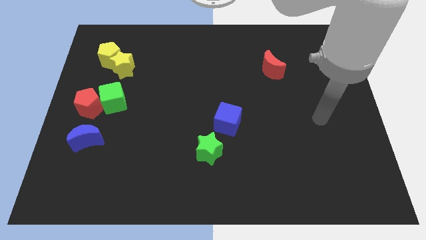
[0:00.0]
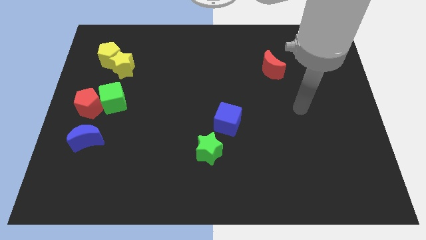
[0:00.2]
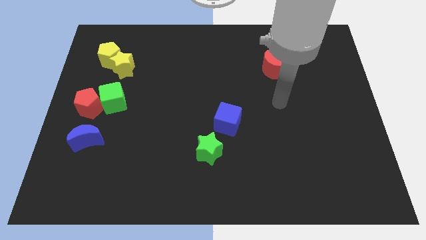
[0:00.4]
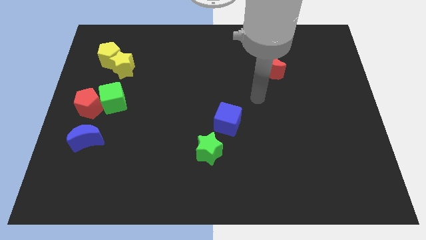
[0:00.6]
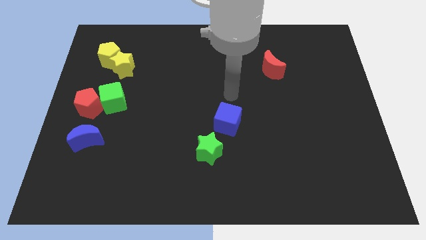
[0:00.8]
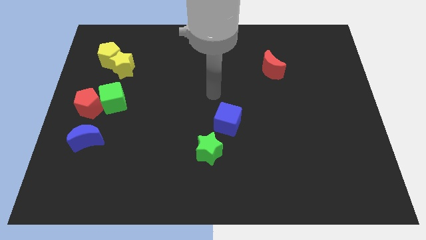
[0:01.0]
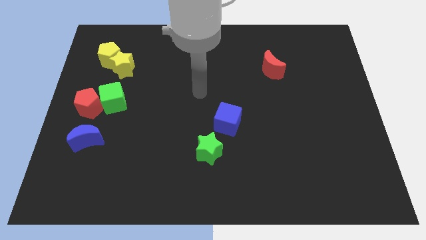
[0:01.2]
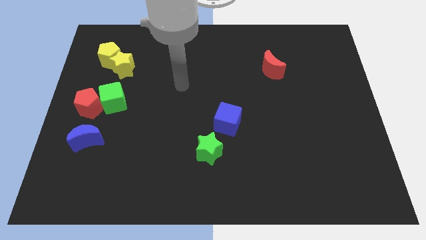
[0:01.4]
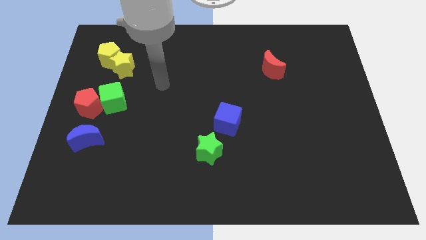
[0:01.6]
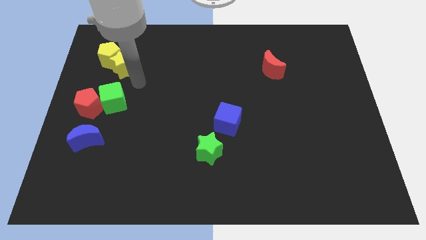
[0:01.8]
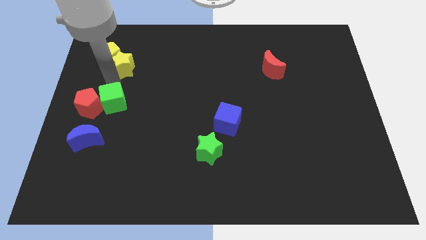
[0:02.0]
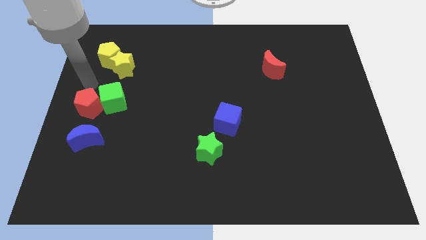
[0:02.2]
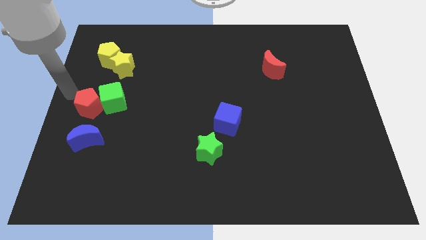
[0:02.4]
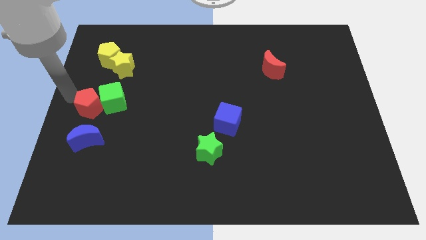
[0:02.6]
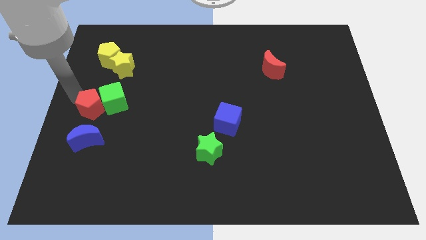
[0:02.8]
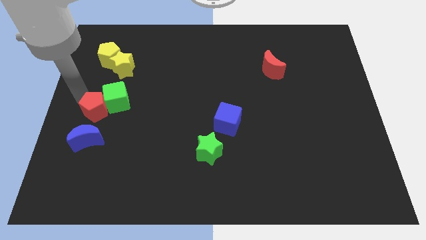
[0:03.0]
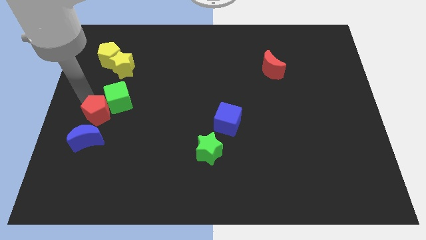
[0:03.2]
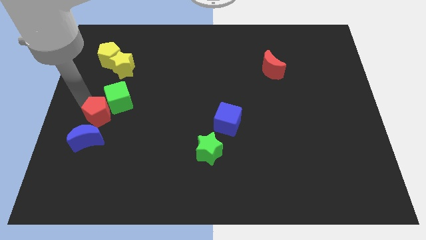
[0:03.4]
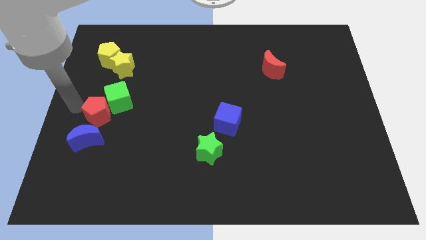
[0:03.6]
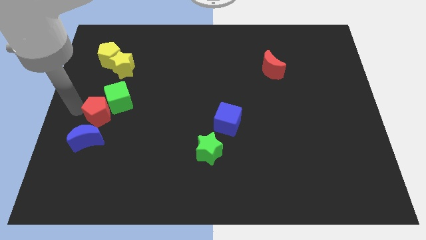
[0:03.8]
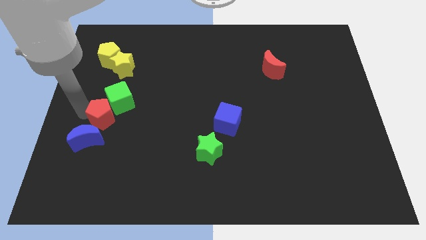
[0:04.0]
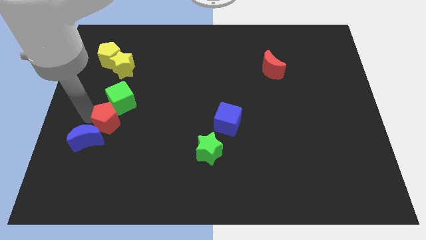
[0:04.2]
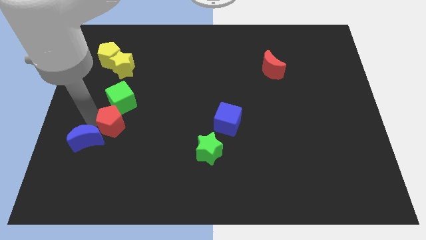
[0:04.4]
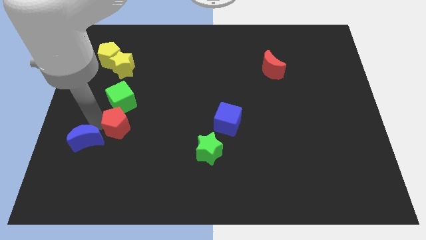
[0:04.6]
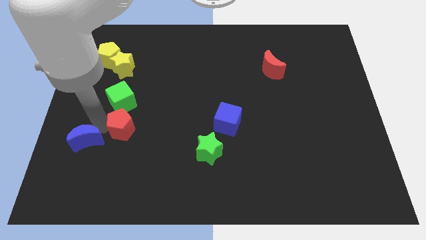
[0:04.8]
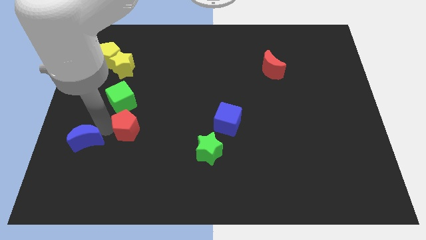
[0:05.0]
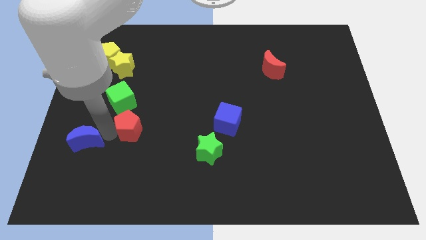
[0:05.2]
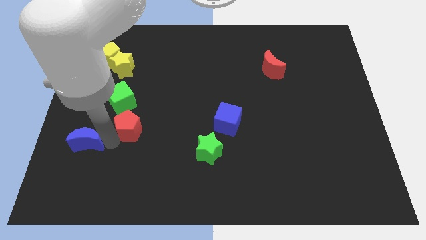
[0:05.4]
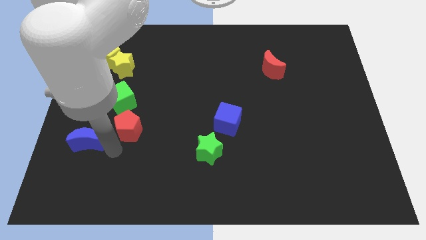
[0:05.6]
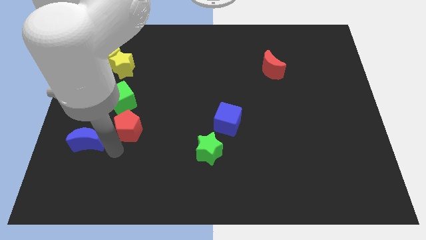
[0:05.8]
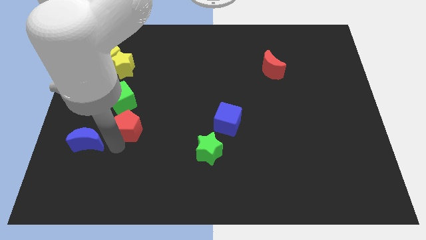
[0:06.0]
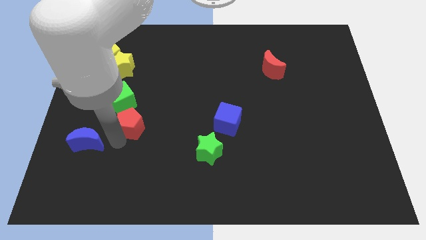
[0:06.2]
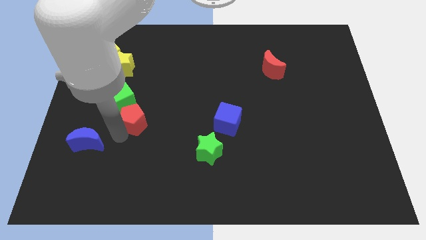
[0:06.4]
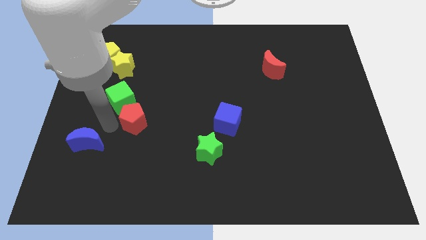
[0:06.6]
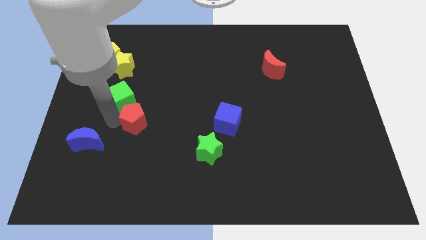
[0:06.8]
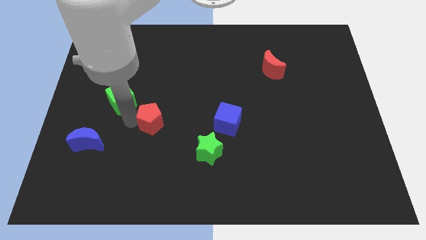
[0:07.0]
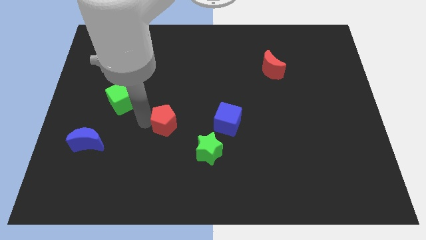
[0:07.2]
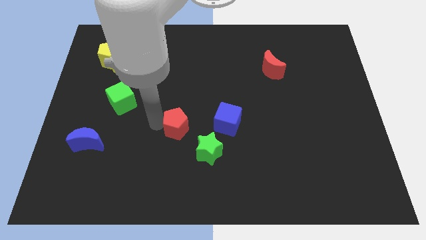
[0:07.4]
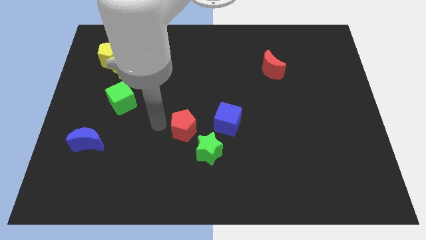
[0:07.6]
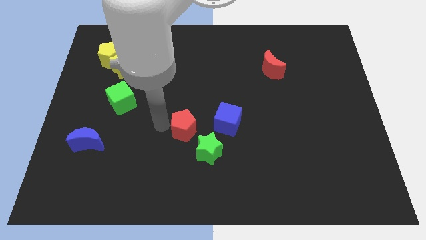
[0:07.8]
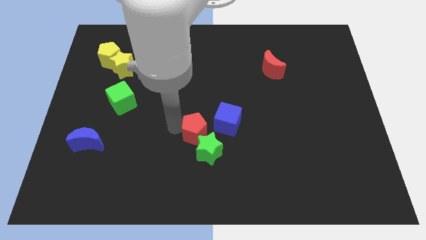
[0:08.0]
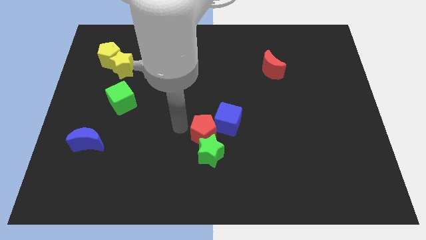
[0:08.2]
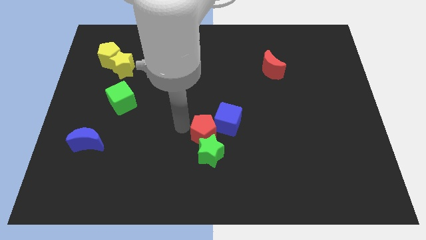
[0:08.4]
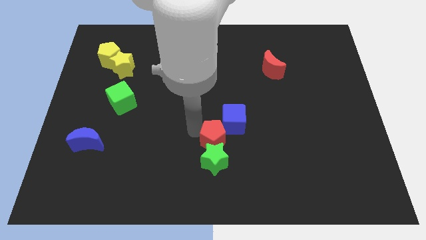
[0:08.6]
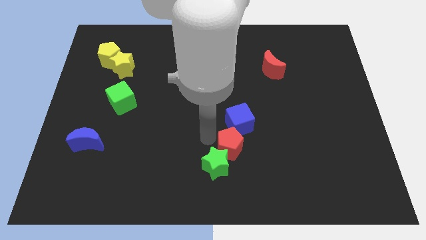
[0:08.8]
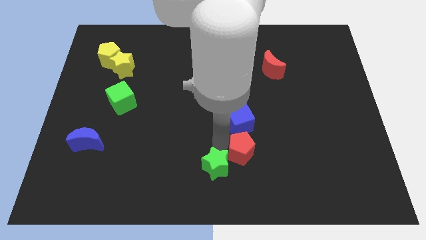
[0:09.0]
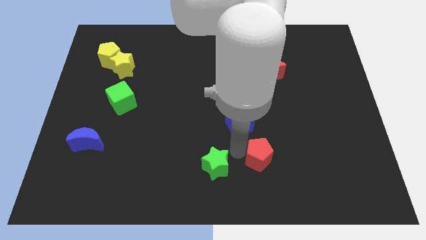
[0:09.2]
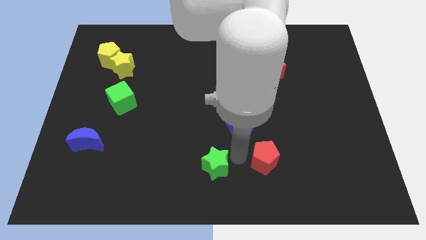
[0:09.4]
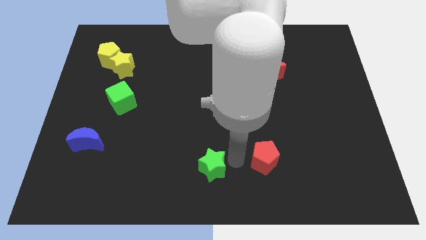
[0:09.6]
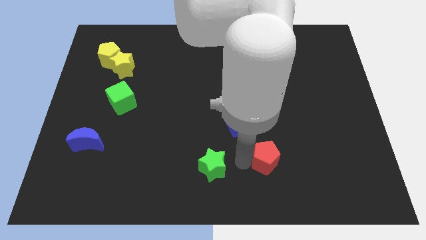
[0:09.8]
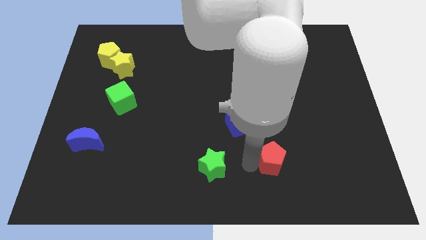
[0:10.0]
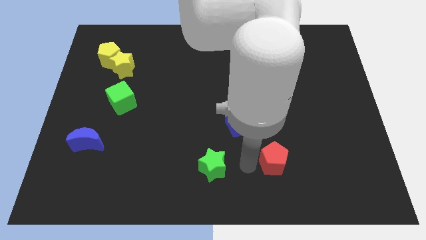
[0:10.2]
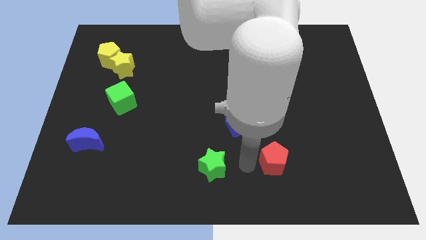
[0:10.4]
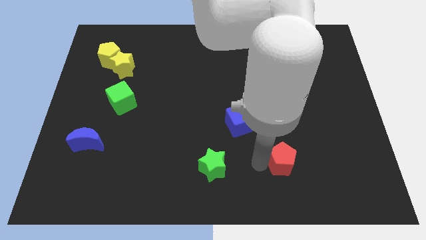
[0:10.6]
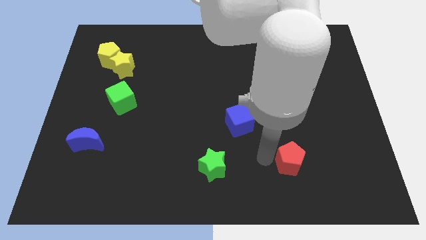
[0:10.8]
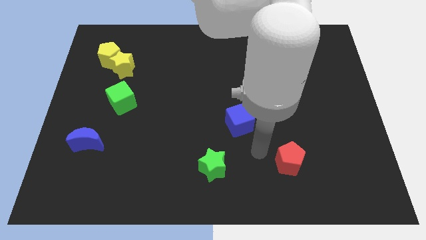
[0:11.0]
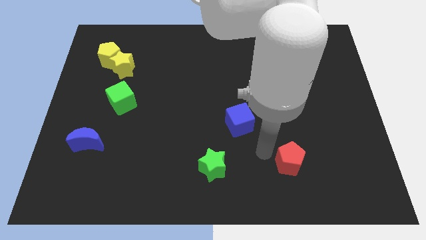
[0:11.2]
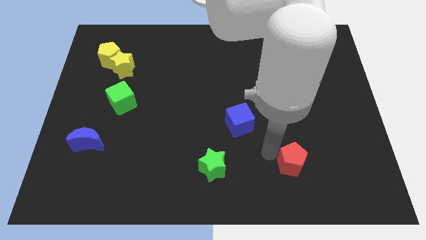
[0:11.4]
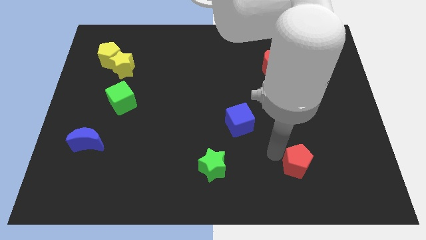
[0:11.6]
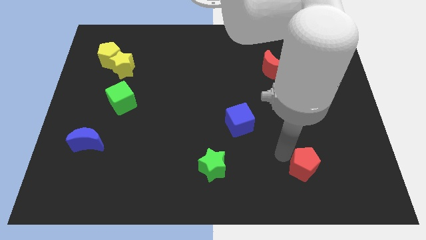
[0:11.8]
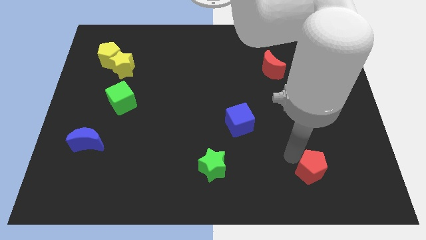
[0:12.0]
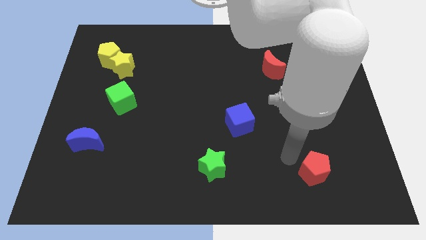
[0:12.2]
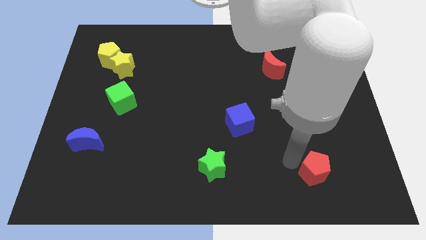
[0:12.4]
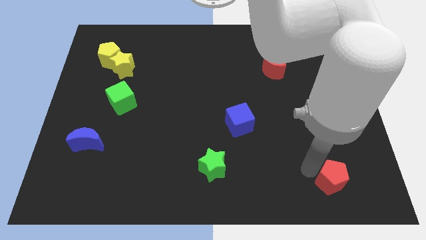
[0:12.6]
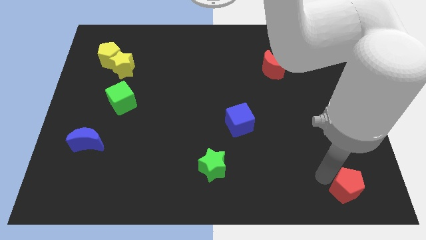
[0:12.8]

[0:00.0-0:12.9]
slide the red pentagon to the bottom right of the board

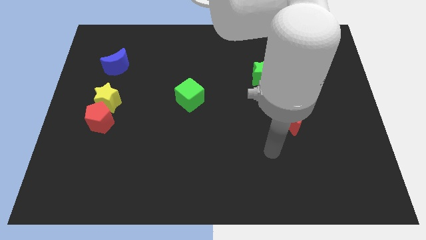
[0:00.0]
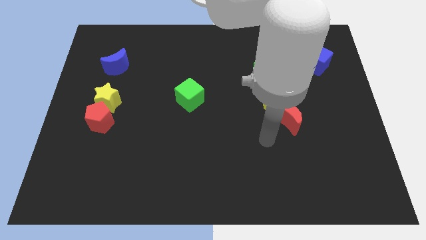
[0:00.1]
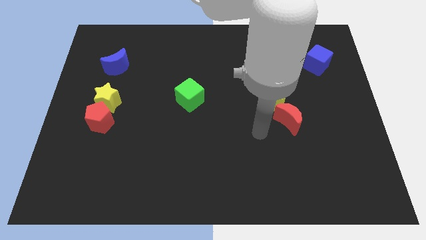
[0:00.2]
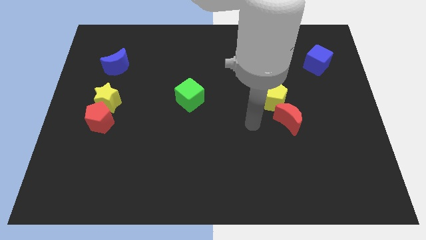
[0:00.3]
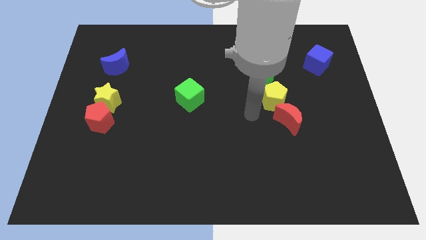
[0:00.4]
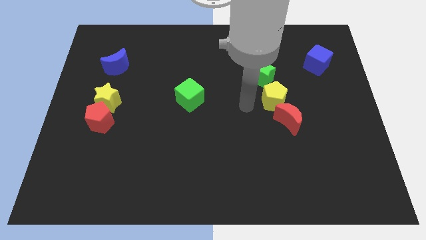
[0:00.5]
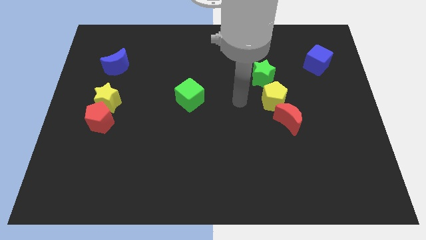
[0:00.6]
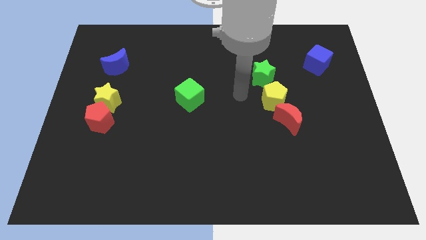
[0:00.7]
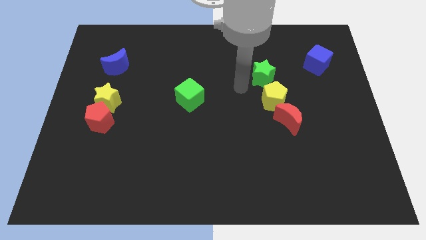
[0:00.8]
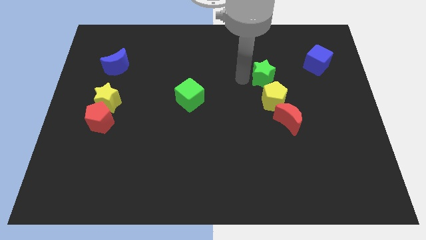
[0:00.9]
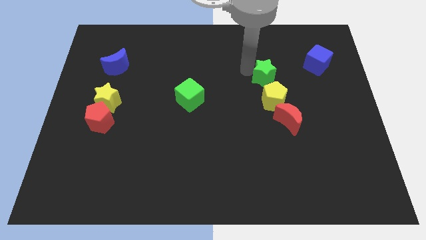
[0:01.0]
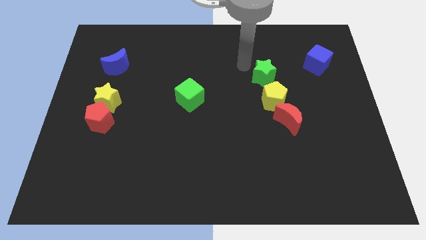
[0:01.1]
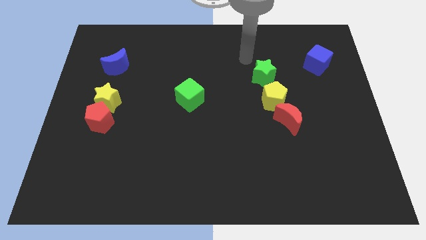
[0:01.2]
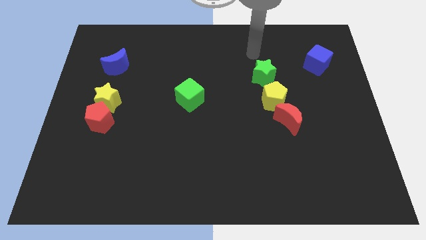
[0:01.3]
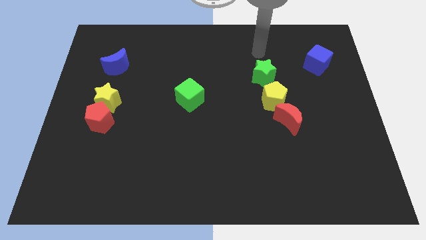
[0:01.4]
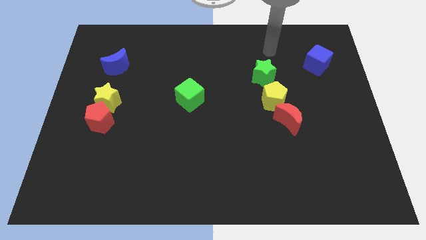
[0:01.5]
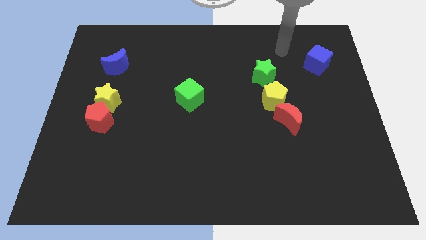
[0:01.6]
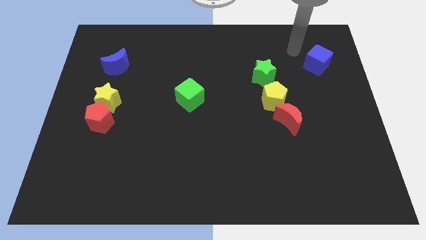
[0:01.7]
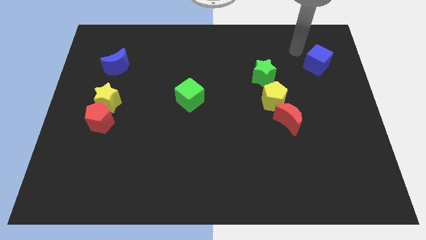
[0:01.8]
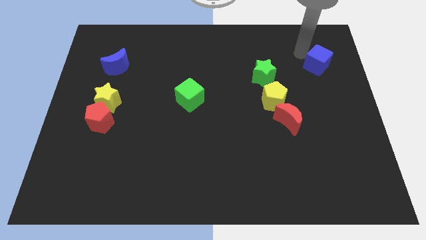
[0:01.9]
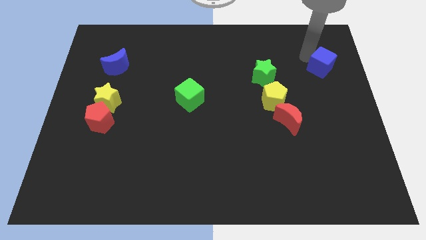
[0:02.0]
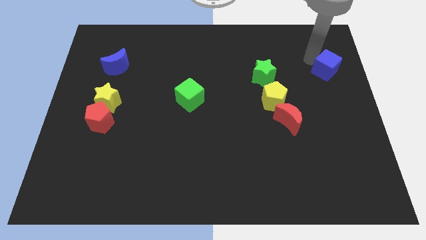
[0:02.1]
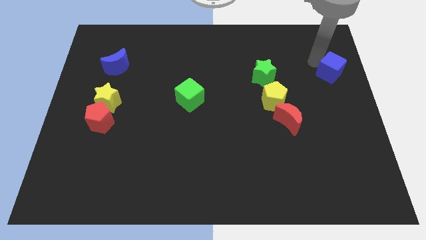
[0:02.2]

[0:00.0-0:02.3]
push the blue cube to the right side of the board
